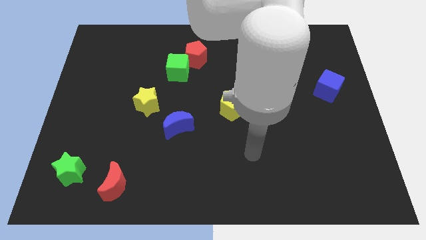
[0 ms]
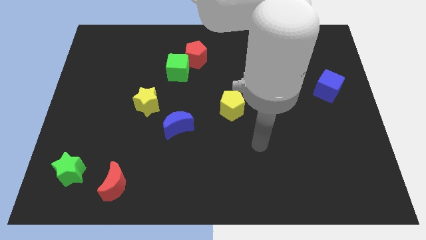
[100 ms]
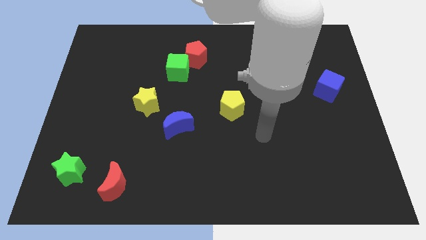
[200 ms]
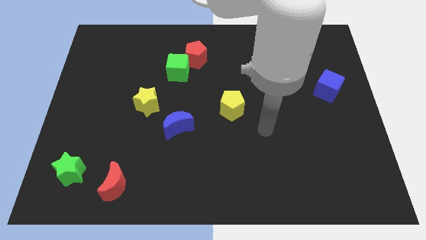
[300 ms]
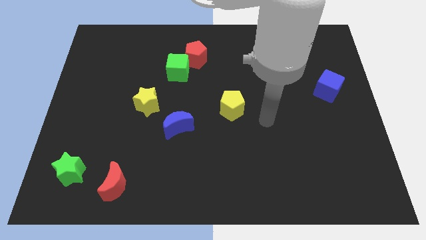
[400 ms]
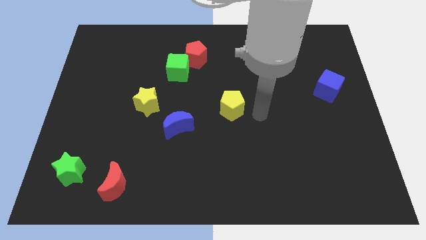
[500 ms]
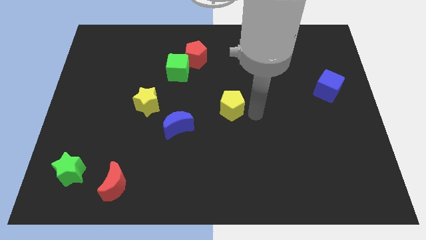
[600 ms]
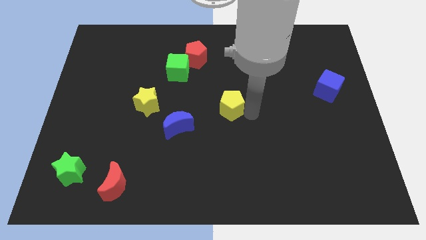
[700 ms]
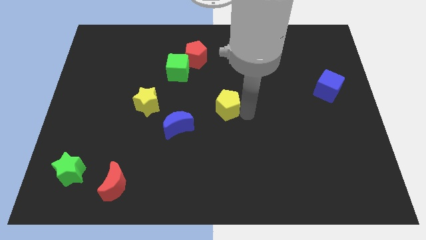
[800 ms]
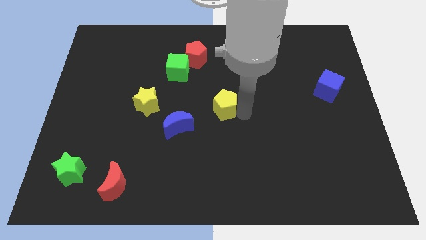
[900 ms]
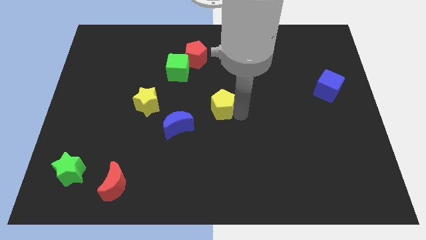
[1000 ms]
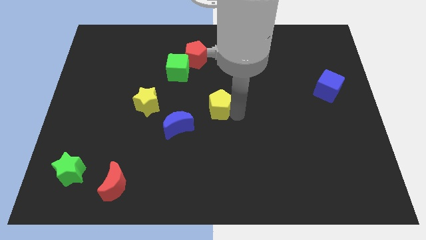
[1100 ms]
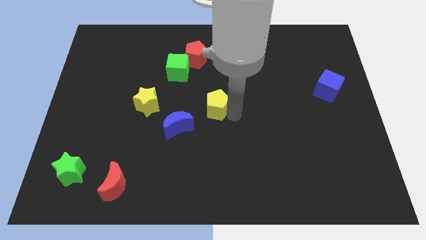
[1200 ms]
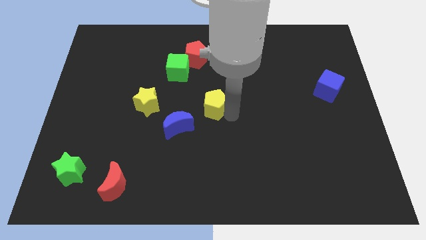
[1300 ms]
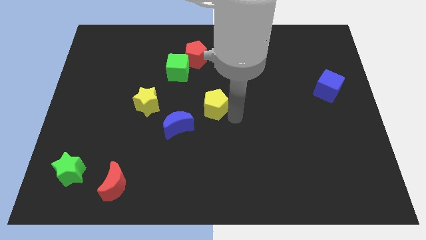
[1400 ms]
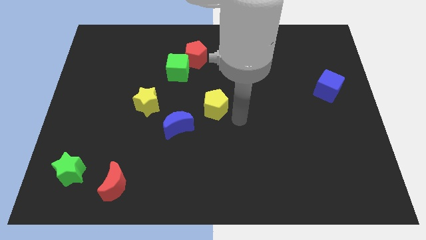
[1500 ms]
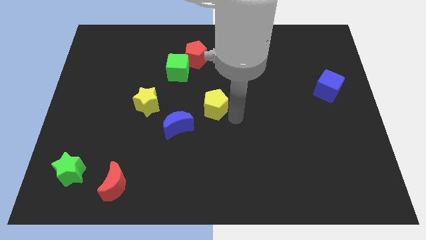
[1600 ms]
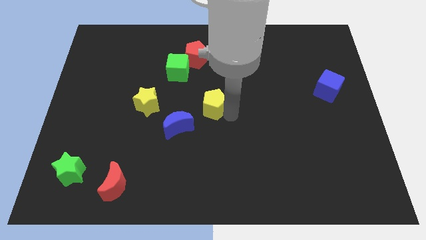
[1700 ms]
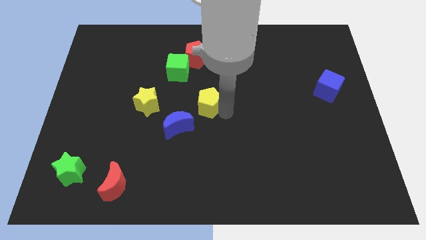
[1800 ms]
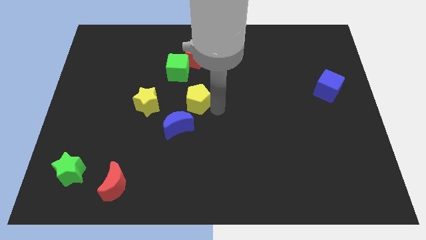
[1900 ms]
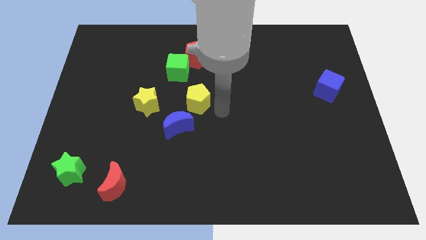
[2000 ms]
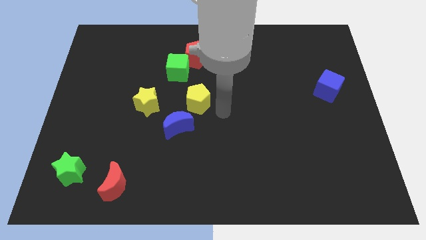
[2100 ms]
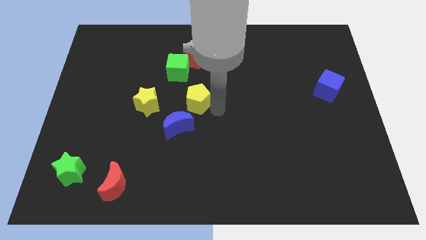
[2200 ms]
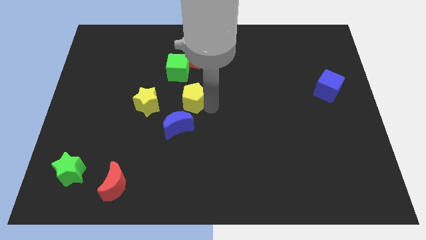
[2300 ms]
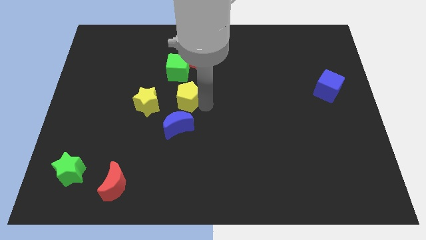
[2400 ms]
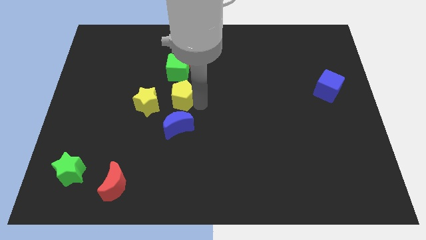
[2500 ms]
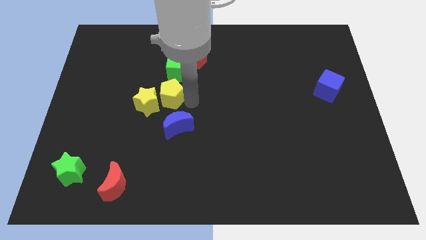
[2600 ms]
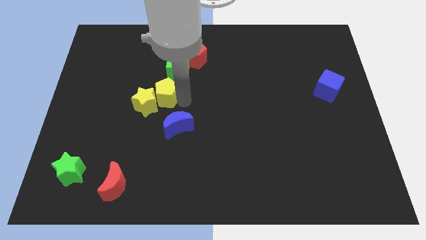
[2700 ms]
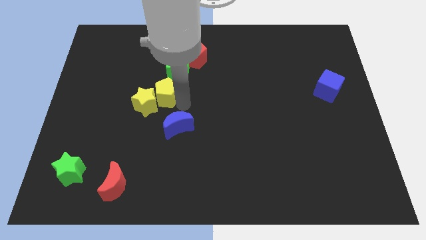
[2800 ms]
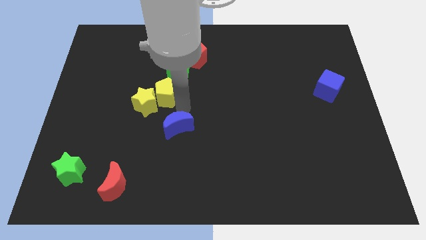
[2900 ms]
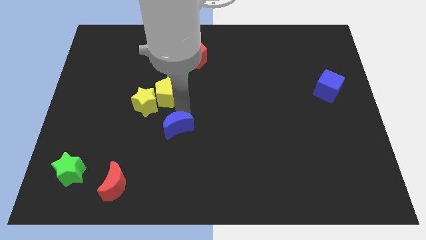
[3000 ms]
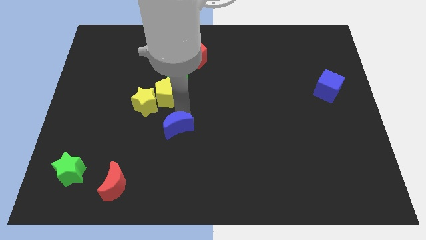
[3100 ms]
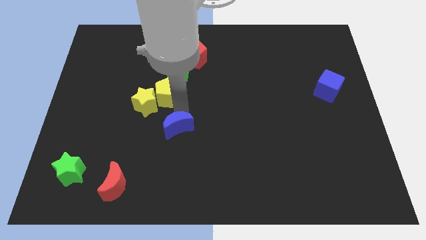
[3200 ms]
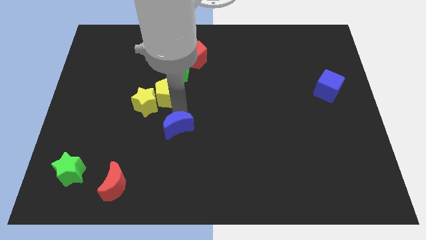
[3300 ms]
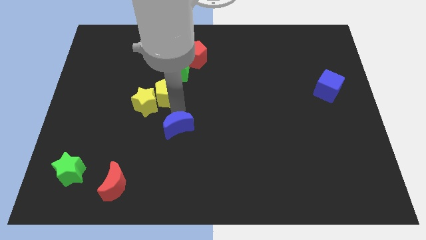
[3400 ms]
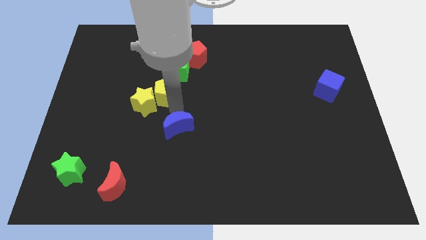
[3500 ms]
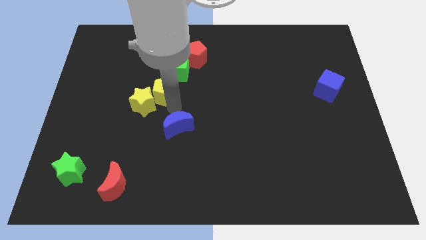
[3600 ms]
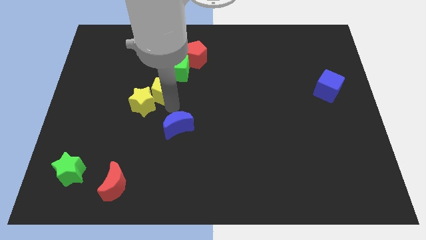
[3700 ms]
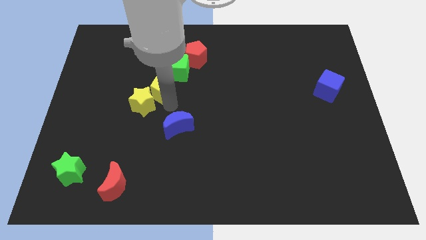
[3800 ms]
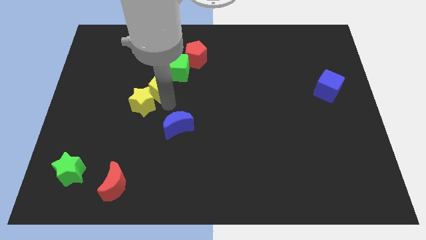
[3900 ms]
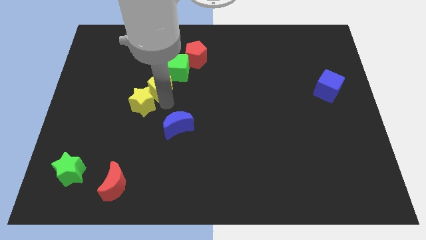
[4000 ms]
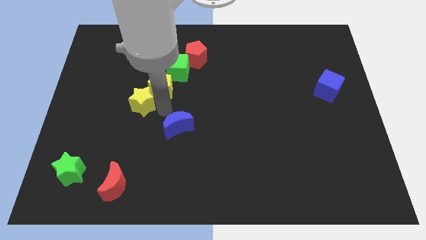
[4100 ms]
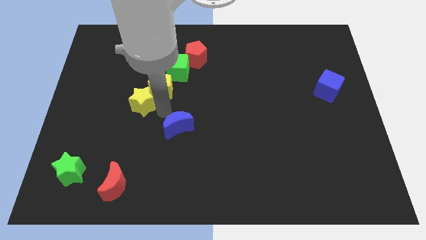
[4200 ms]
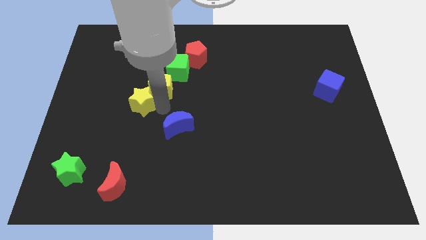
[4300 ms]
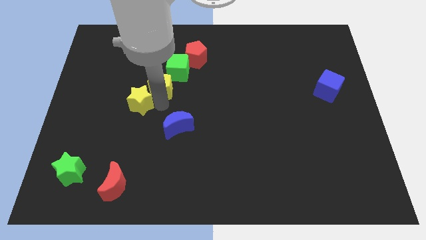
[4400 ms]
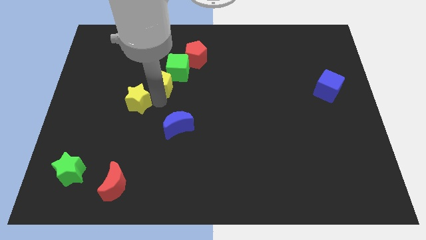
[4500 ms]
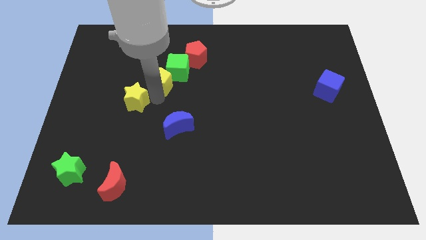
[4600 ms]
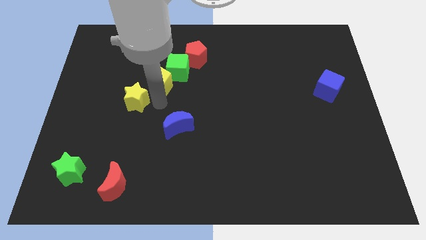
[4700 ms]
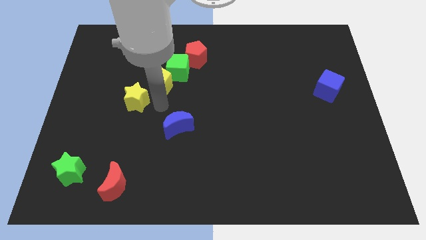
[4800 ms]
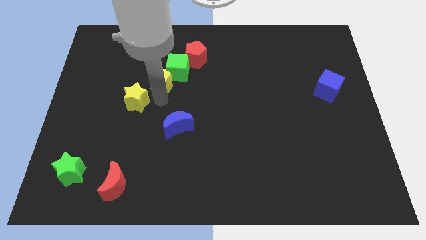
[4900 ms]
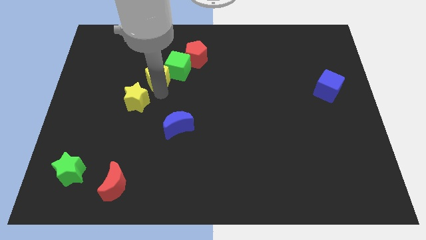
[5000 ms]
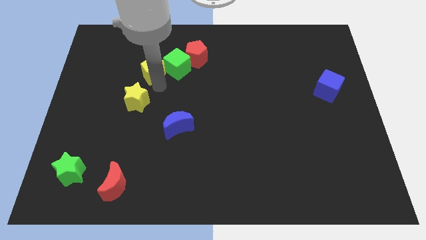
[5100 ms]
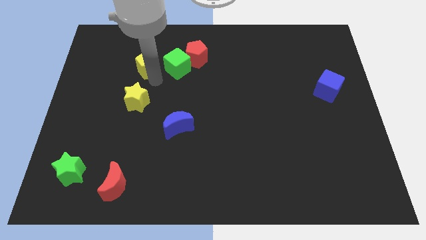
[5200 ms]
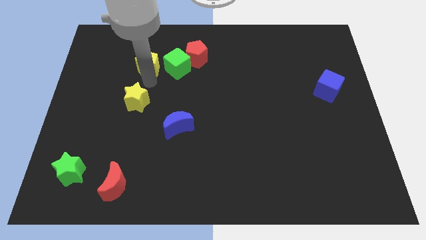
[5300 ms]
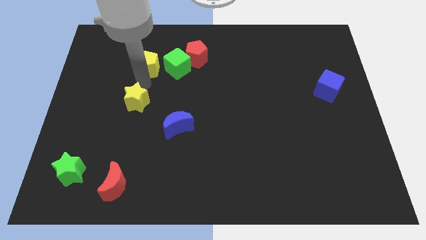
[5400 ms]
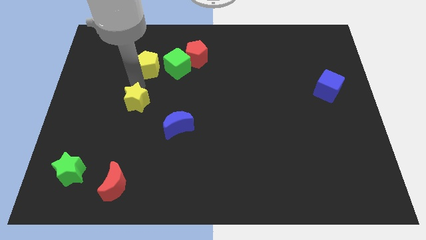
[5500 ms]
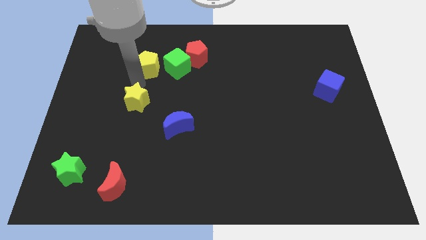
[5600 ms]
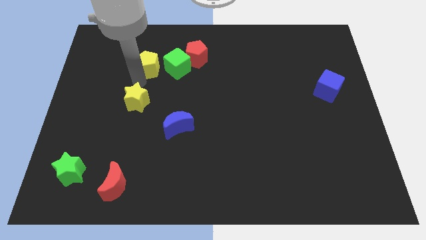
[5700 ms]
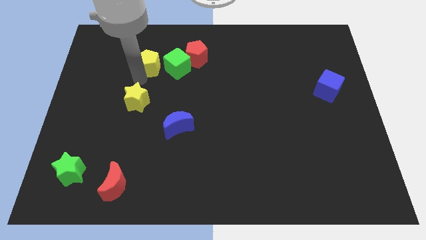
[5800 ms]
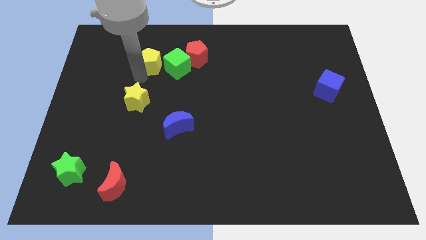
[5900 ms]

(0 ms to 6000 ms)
put the yellow pentagon to the top left side of the green cube

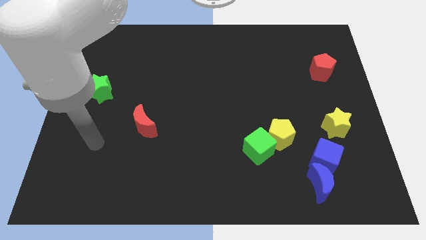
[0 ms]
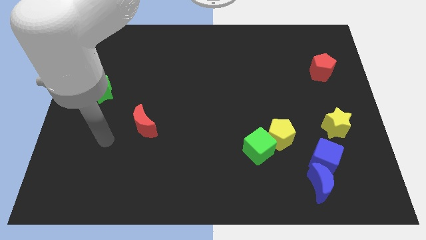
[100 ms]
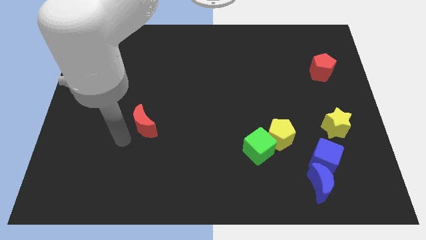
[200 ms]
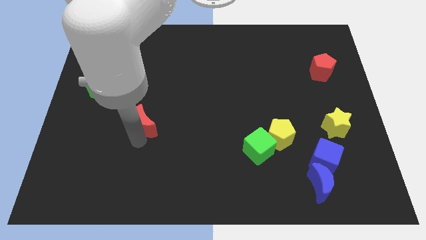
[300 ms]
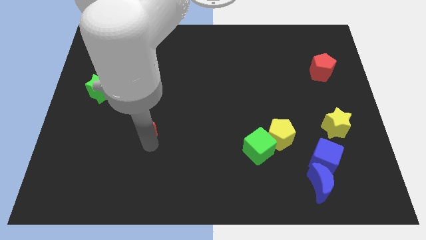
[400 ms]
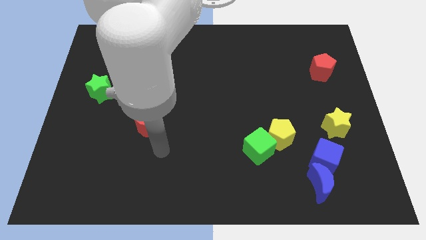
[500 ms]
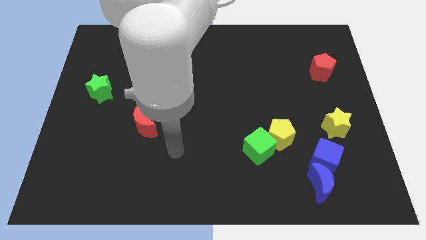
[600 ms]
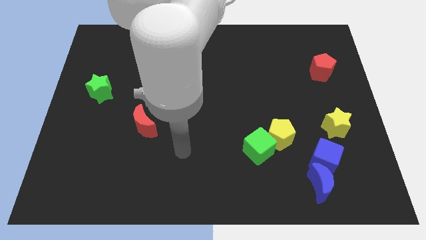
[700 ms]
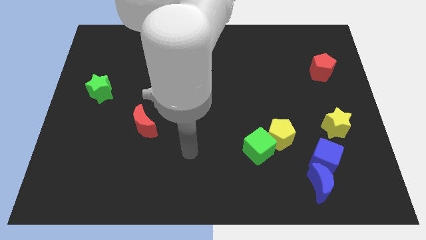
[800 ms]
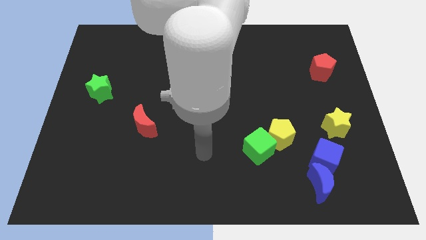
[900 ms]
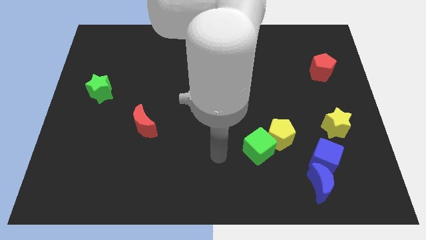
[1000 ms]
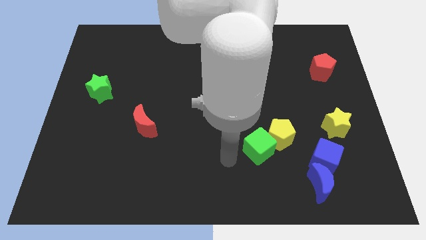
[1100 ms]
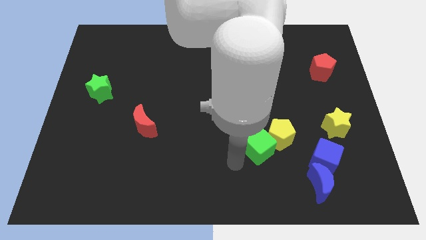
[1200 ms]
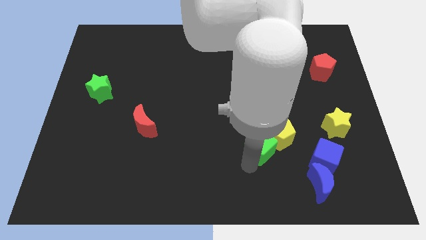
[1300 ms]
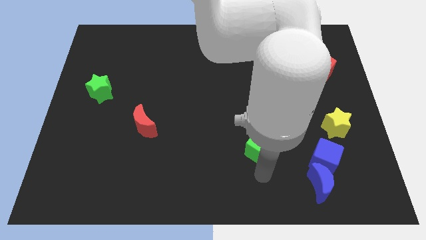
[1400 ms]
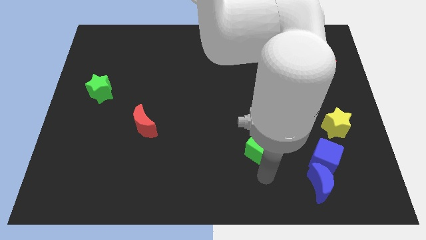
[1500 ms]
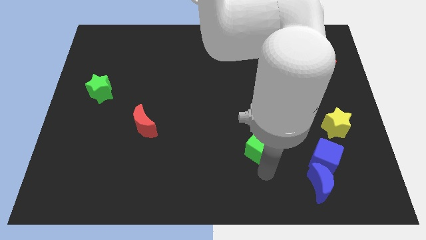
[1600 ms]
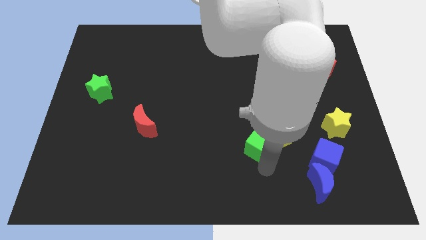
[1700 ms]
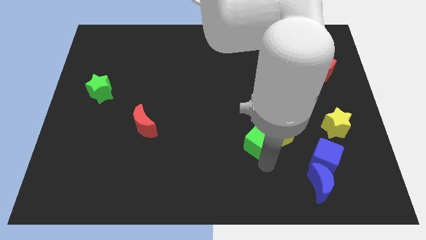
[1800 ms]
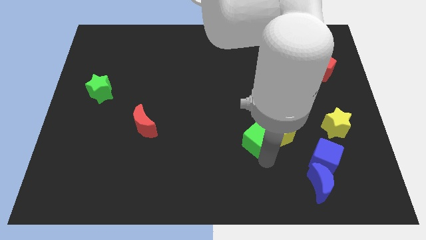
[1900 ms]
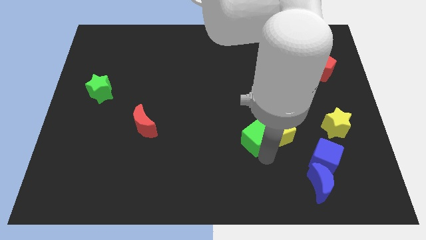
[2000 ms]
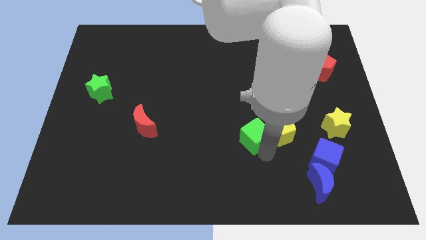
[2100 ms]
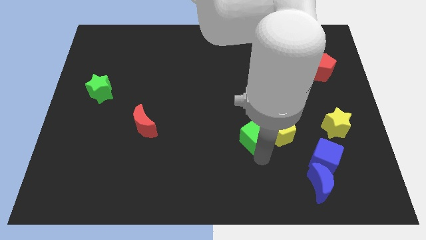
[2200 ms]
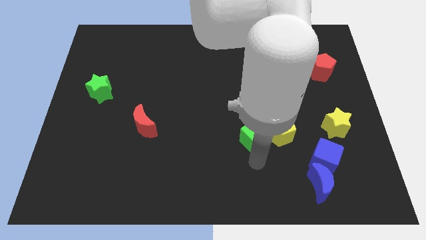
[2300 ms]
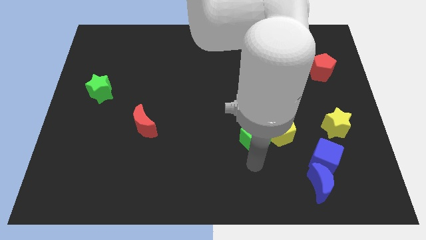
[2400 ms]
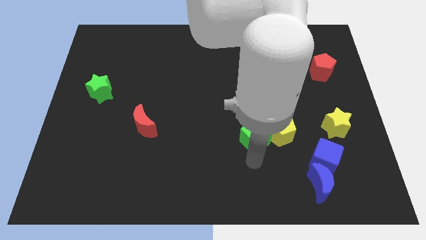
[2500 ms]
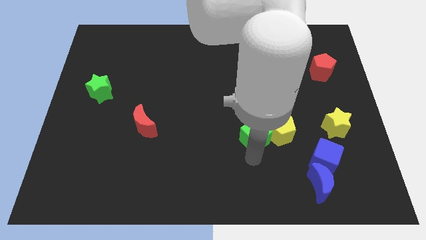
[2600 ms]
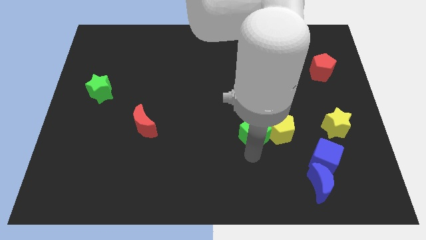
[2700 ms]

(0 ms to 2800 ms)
put the green cube to the top left of the yellow pentagon
